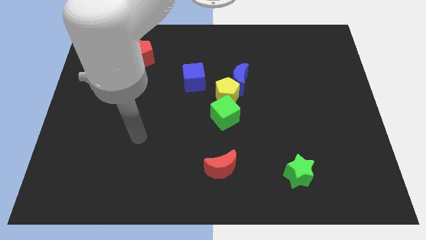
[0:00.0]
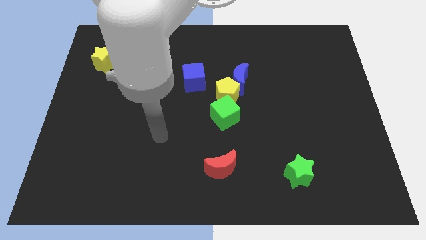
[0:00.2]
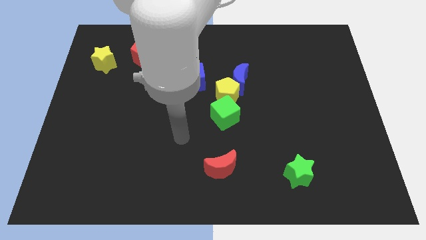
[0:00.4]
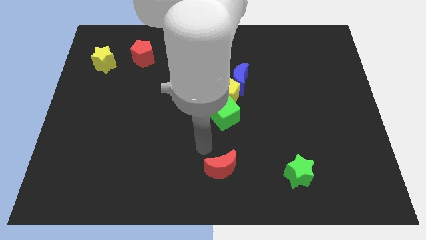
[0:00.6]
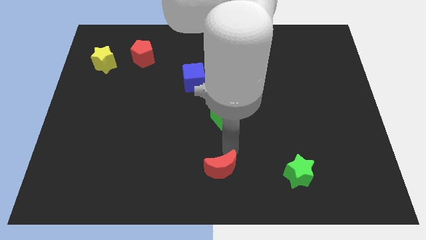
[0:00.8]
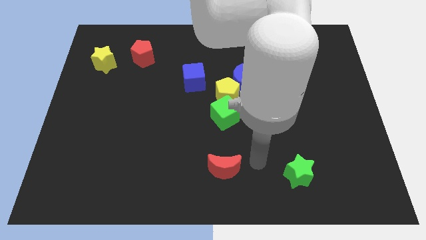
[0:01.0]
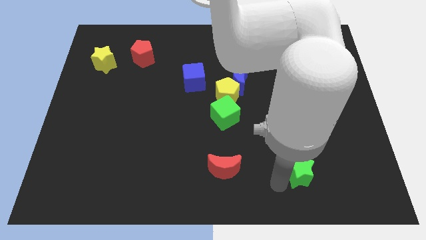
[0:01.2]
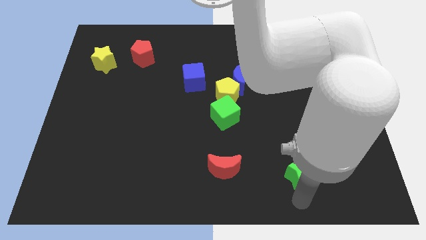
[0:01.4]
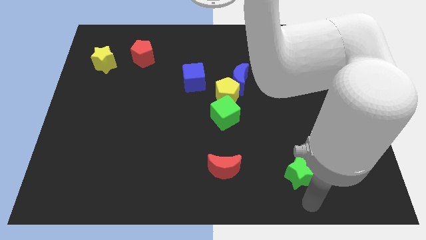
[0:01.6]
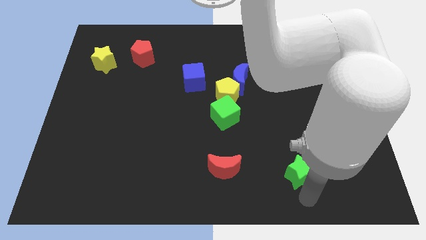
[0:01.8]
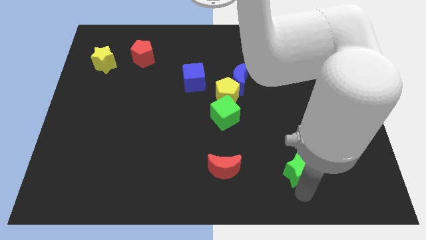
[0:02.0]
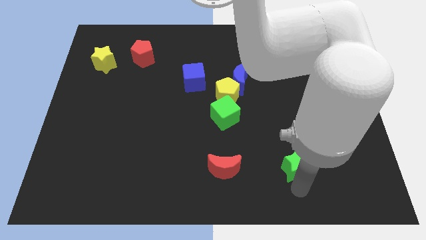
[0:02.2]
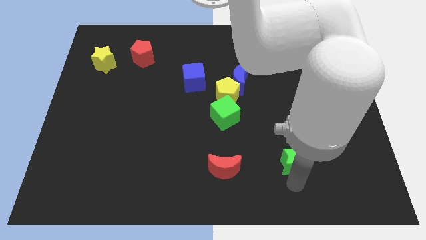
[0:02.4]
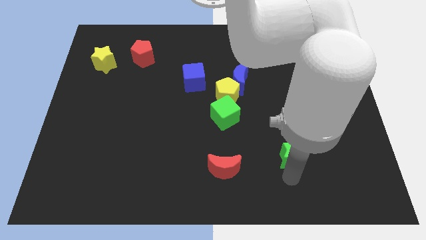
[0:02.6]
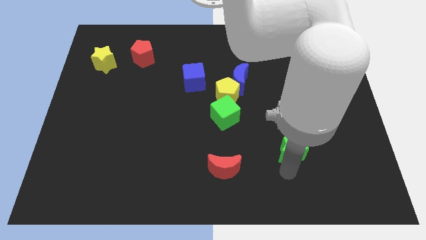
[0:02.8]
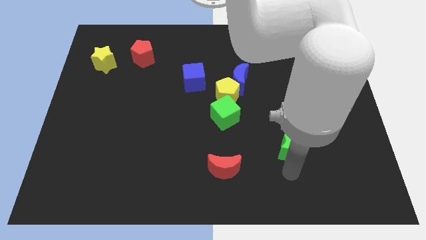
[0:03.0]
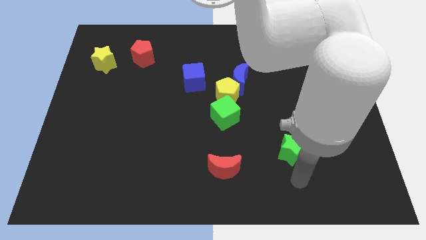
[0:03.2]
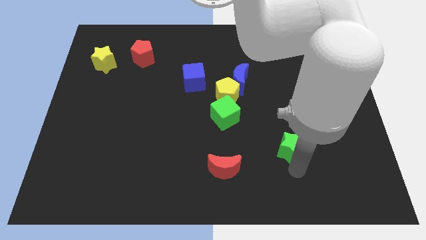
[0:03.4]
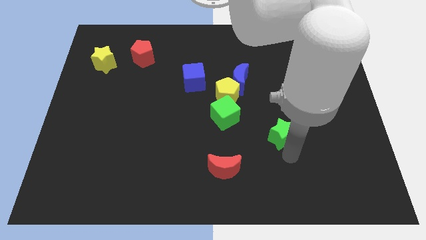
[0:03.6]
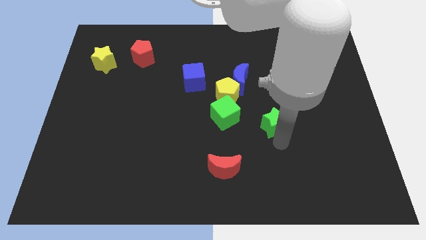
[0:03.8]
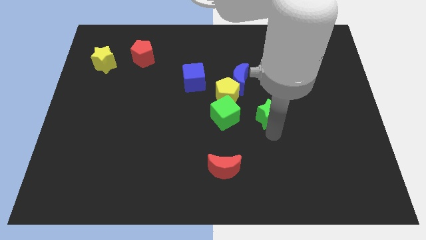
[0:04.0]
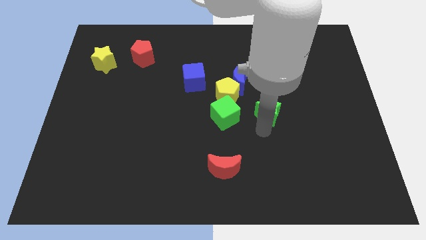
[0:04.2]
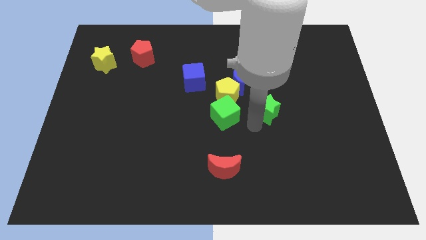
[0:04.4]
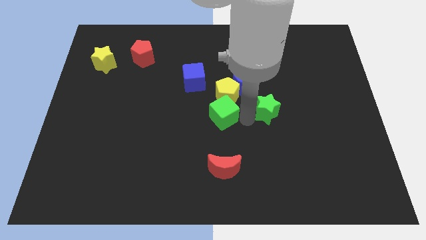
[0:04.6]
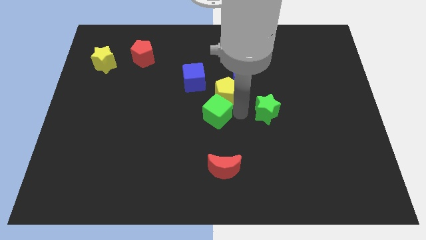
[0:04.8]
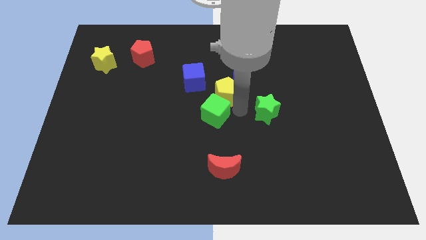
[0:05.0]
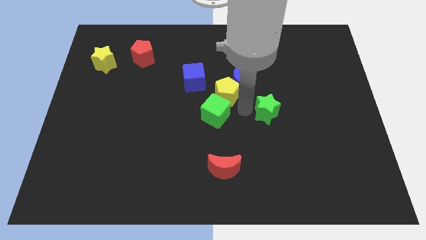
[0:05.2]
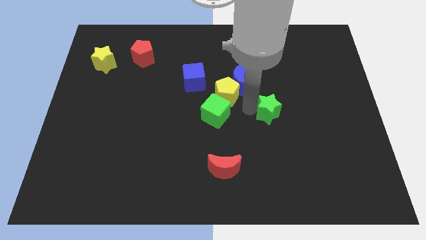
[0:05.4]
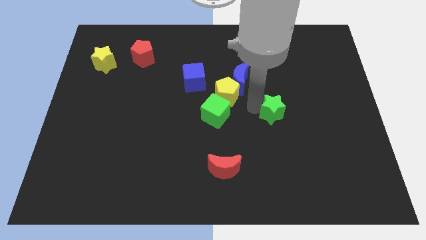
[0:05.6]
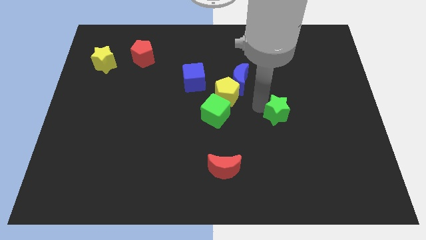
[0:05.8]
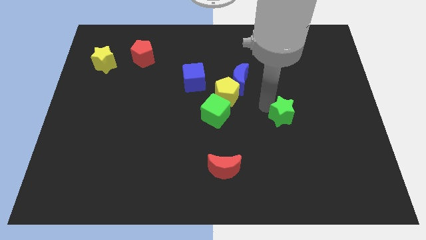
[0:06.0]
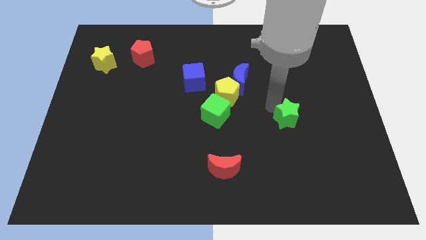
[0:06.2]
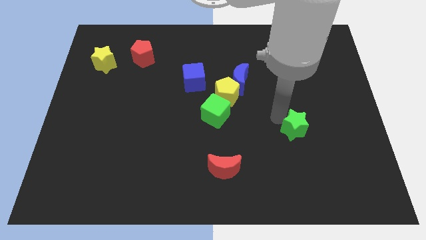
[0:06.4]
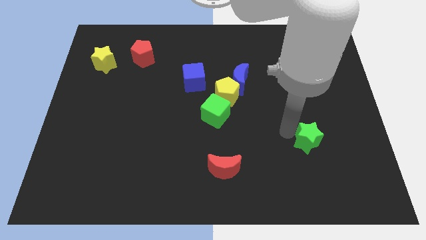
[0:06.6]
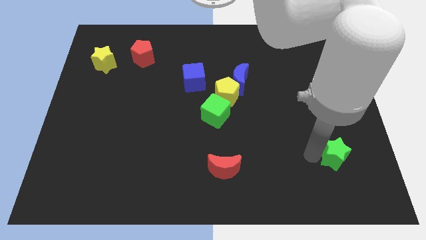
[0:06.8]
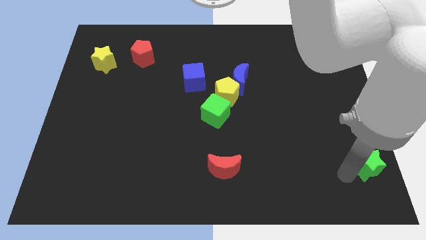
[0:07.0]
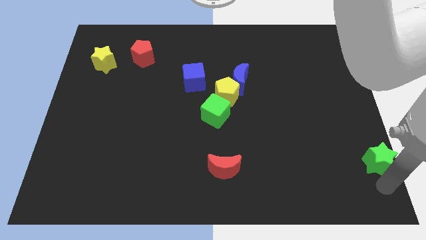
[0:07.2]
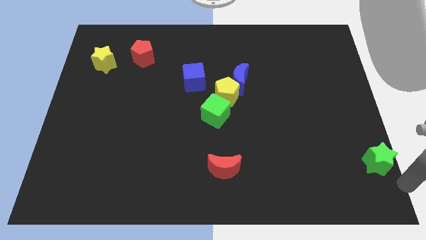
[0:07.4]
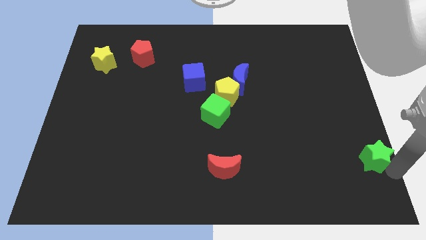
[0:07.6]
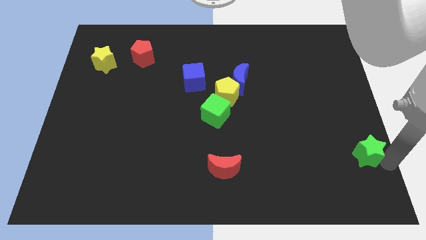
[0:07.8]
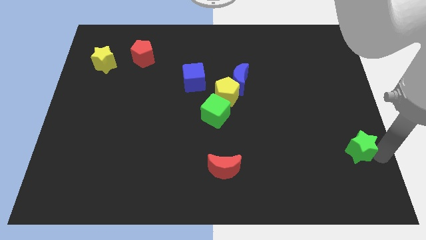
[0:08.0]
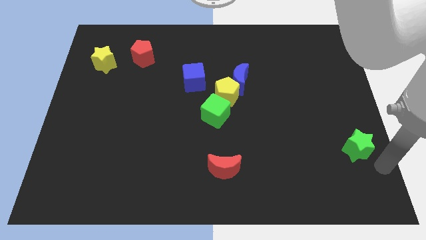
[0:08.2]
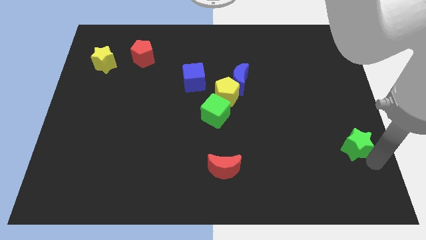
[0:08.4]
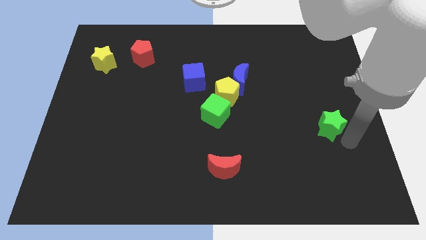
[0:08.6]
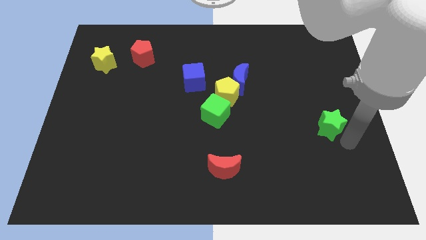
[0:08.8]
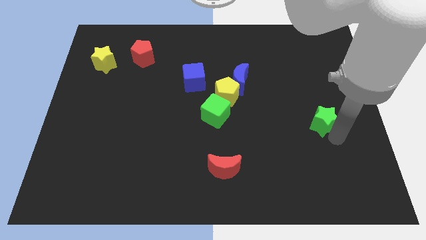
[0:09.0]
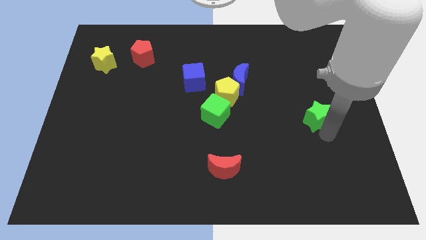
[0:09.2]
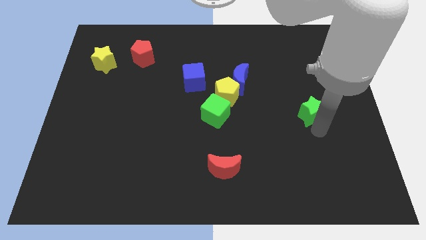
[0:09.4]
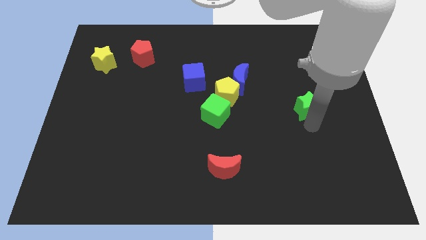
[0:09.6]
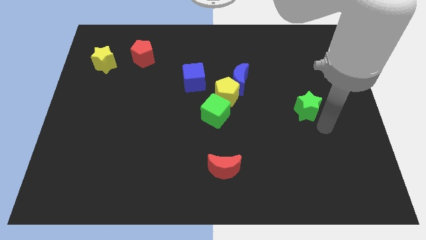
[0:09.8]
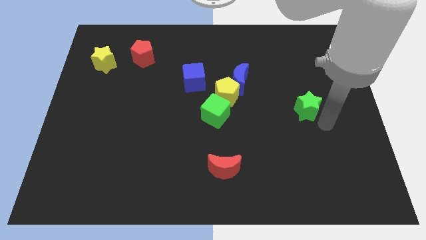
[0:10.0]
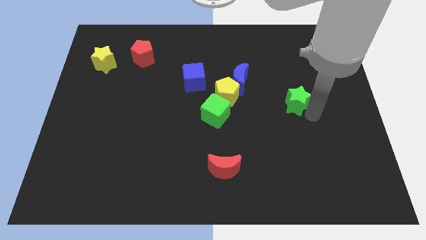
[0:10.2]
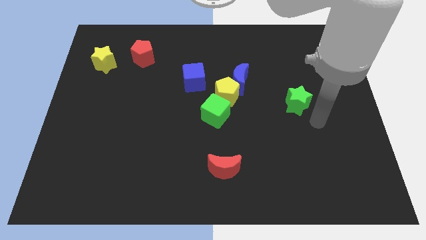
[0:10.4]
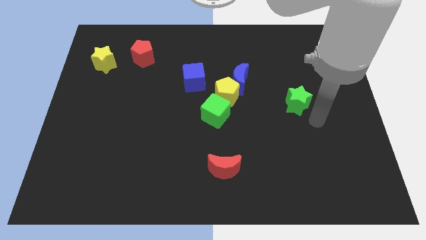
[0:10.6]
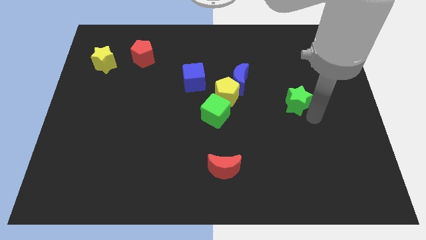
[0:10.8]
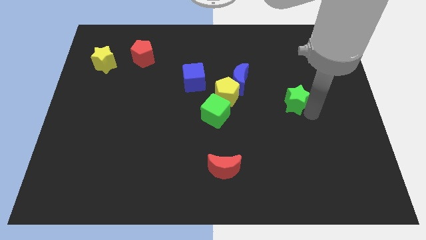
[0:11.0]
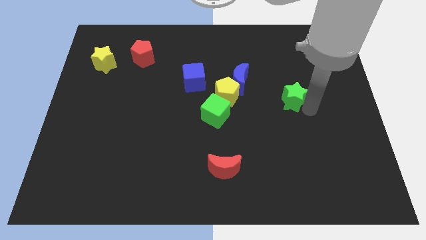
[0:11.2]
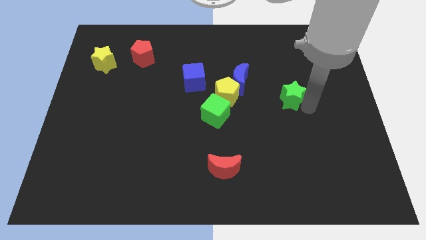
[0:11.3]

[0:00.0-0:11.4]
move the green star upwards

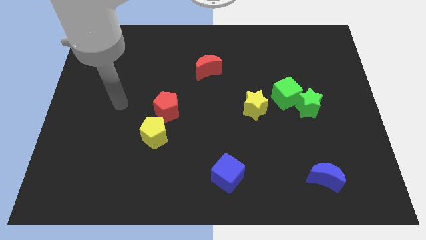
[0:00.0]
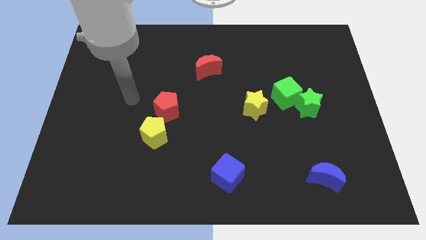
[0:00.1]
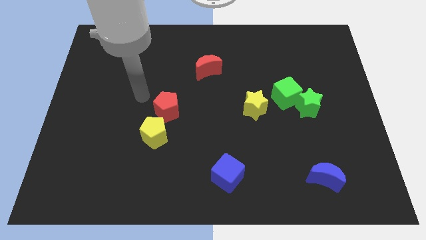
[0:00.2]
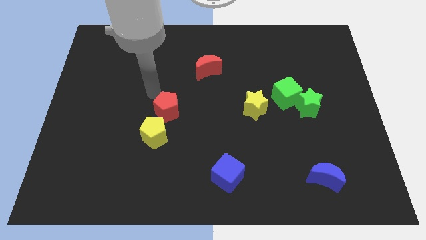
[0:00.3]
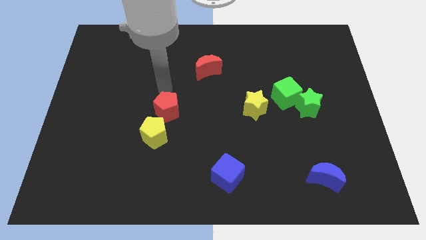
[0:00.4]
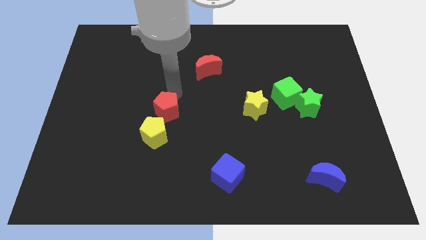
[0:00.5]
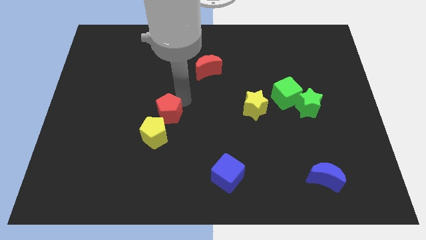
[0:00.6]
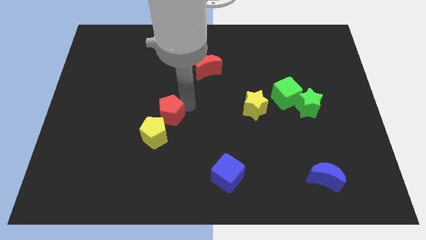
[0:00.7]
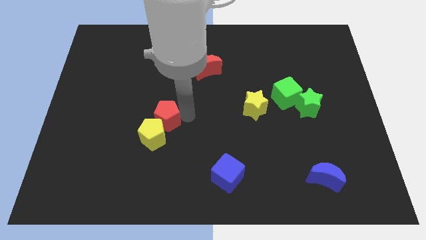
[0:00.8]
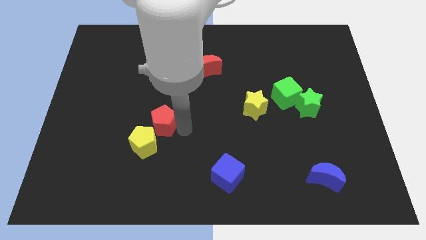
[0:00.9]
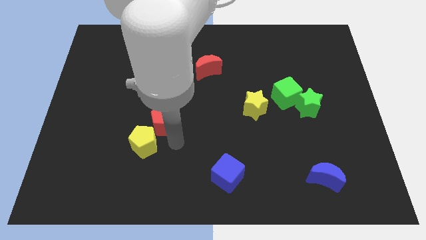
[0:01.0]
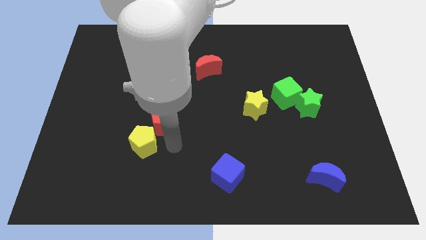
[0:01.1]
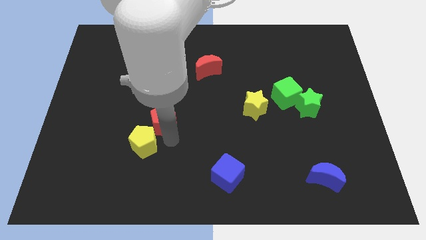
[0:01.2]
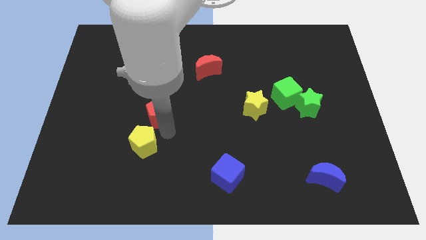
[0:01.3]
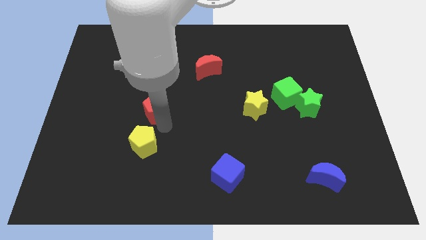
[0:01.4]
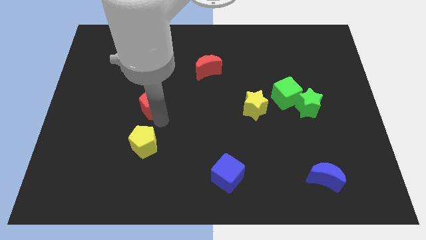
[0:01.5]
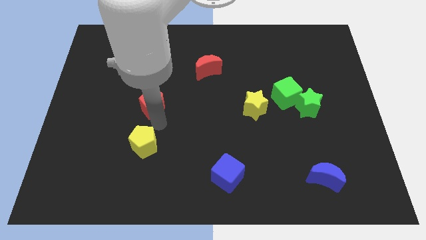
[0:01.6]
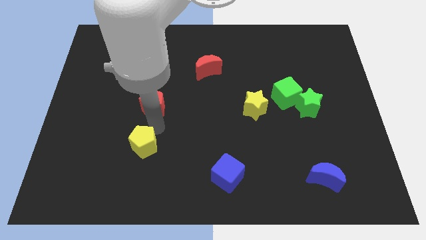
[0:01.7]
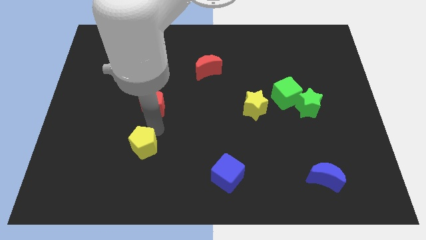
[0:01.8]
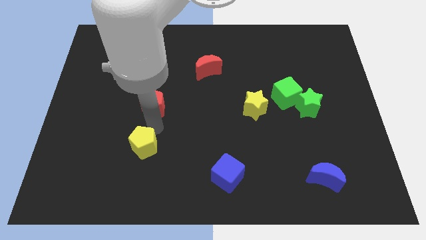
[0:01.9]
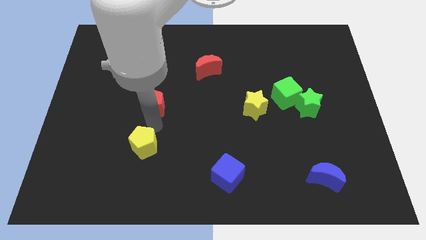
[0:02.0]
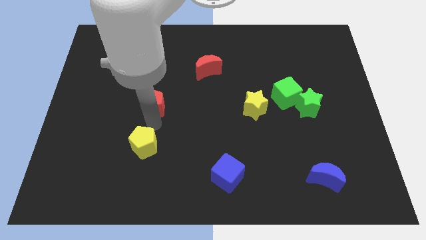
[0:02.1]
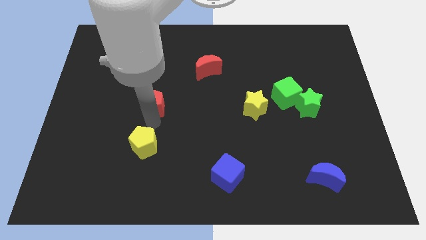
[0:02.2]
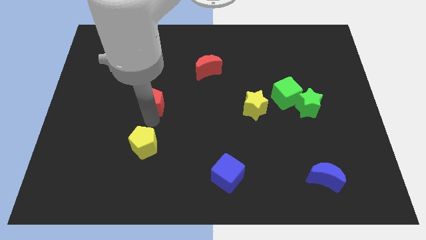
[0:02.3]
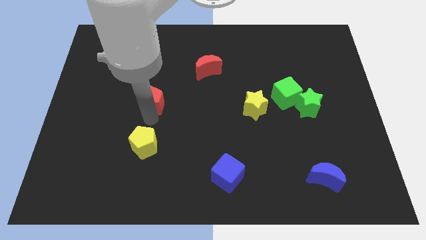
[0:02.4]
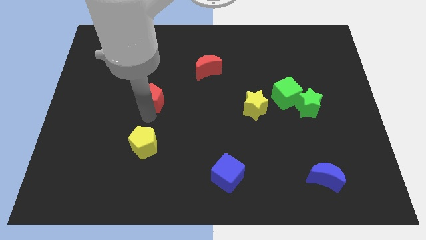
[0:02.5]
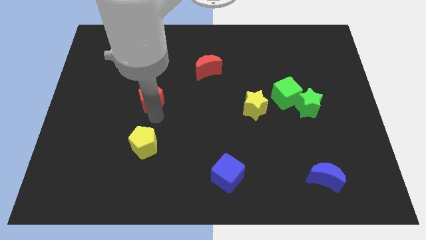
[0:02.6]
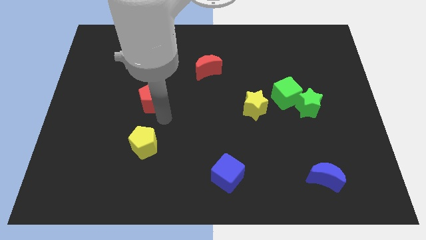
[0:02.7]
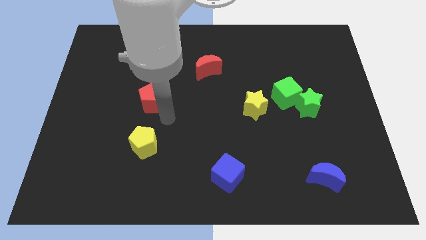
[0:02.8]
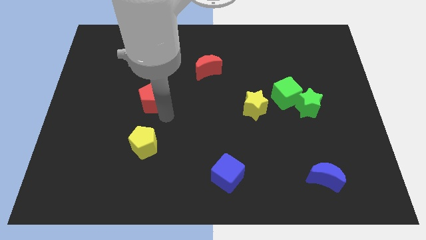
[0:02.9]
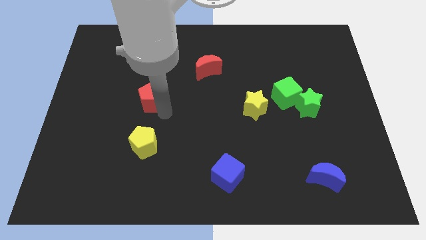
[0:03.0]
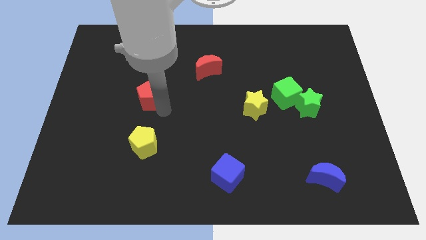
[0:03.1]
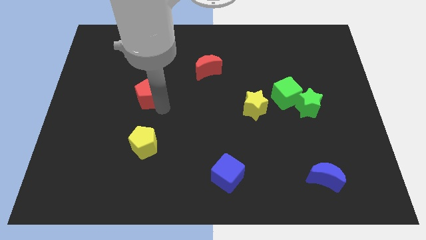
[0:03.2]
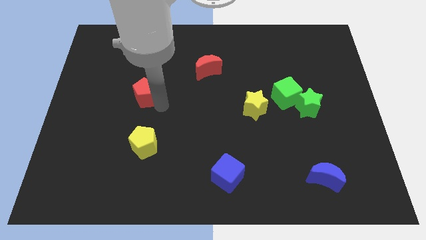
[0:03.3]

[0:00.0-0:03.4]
slightly move the red pentagon upwards and left
